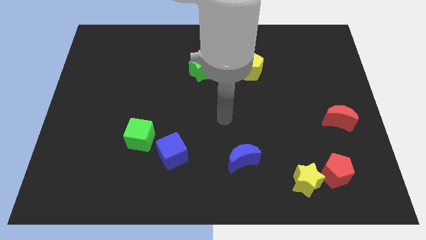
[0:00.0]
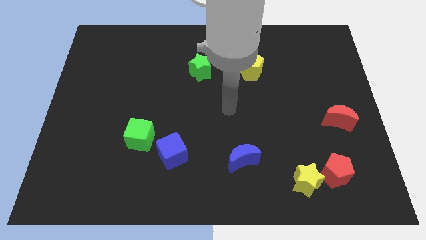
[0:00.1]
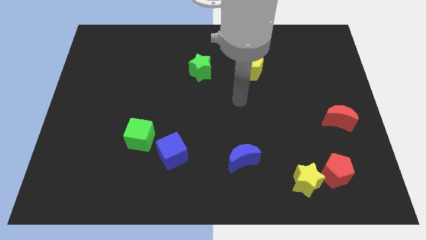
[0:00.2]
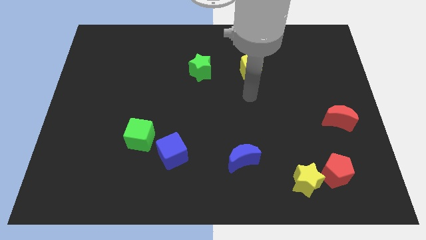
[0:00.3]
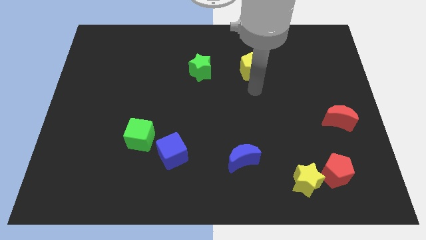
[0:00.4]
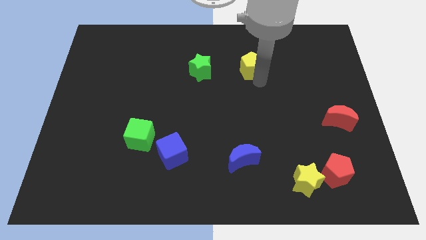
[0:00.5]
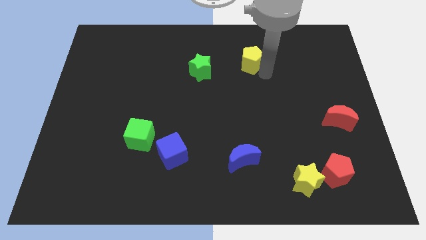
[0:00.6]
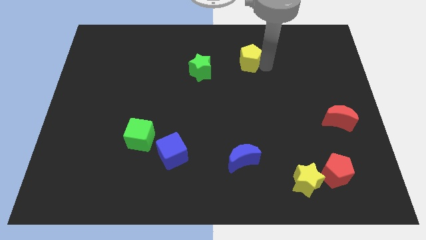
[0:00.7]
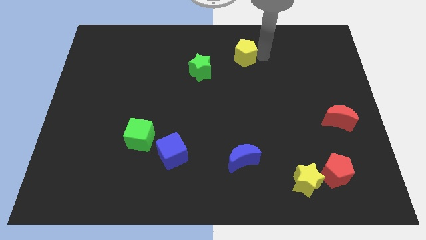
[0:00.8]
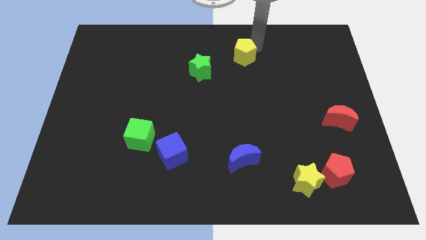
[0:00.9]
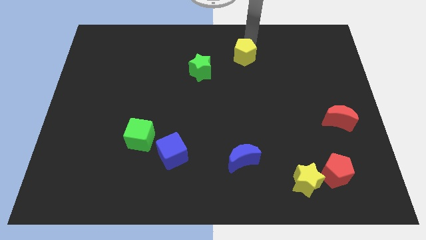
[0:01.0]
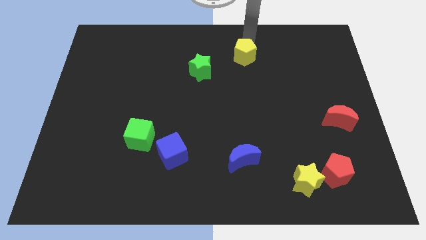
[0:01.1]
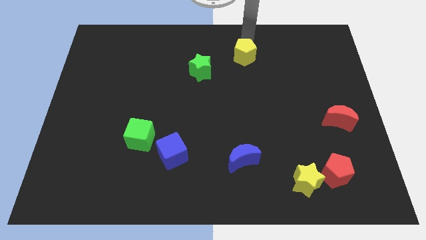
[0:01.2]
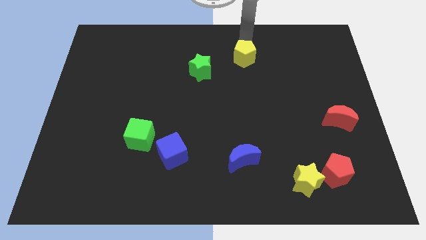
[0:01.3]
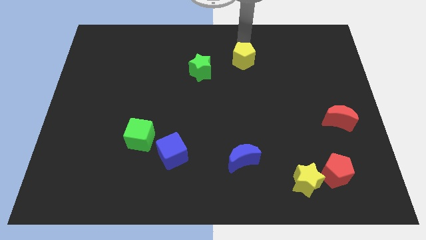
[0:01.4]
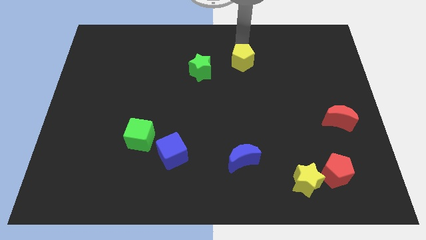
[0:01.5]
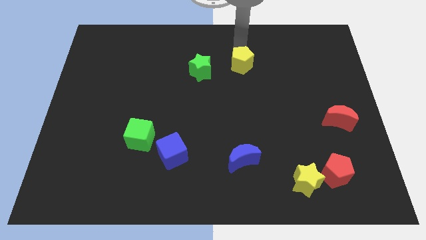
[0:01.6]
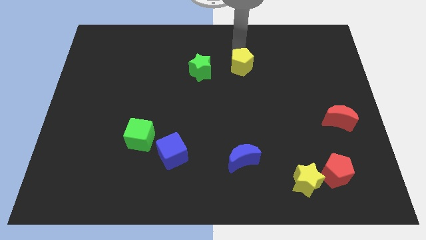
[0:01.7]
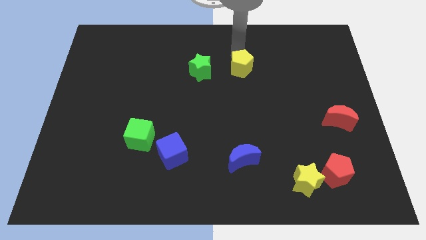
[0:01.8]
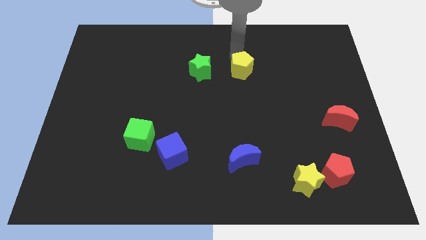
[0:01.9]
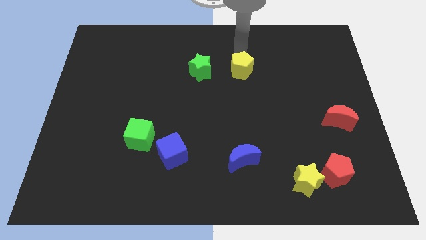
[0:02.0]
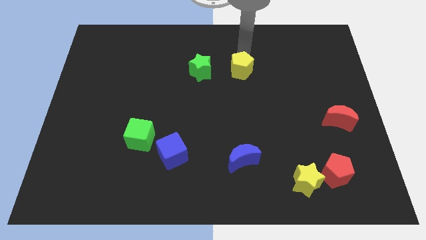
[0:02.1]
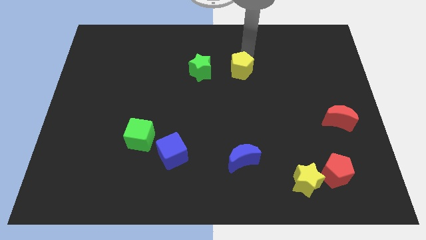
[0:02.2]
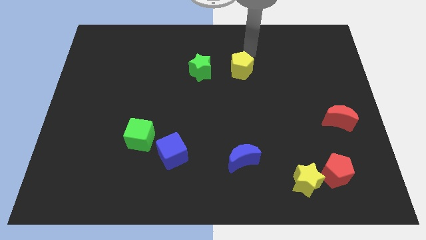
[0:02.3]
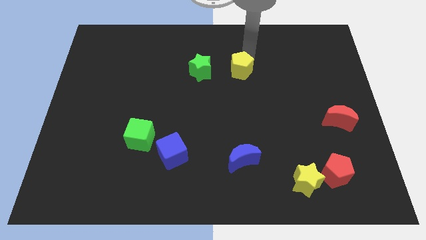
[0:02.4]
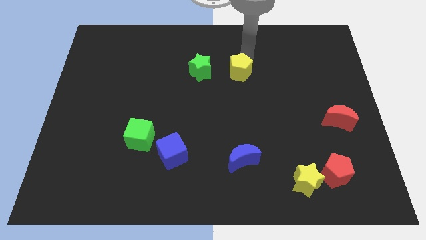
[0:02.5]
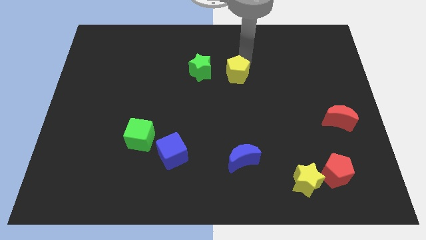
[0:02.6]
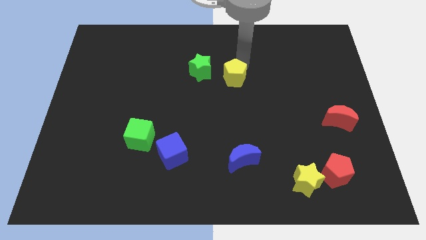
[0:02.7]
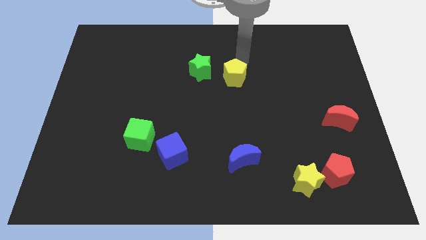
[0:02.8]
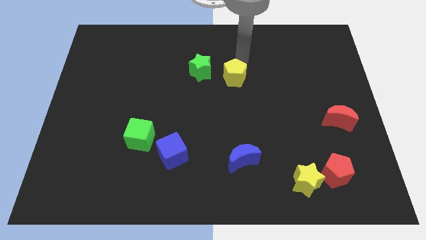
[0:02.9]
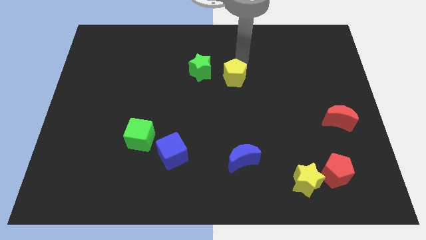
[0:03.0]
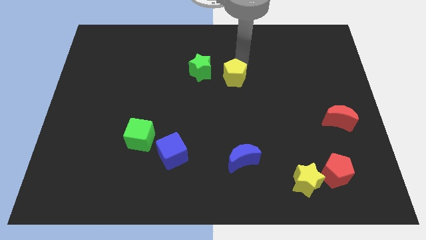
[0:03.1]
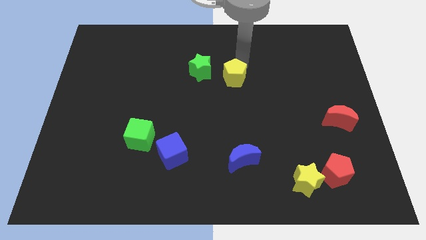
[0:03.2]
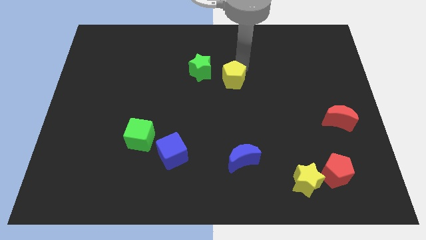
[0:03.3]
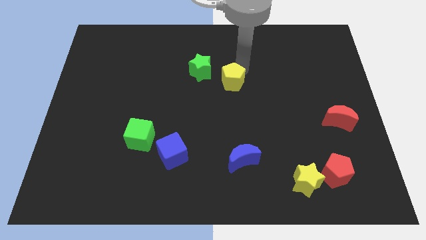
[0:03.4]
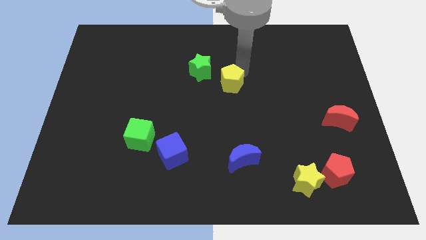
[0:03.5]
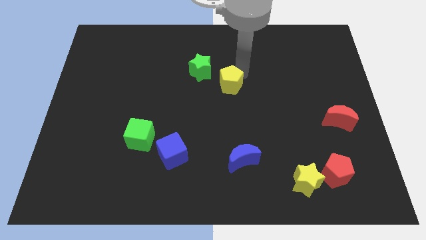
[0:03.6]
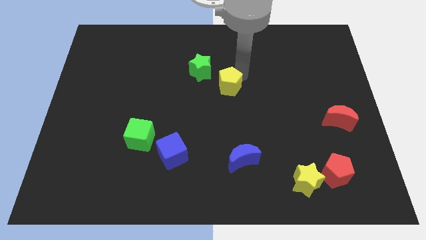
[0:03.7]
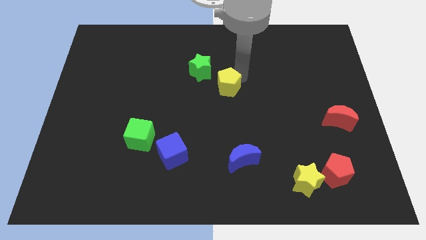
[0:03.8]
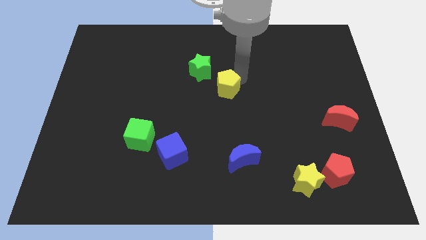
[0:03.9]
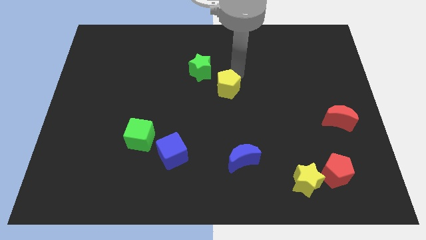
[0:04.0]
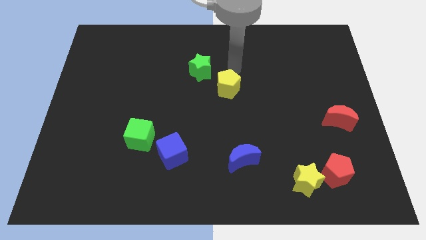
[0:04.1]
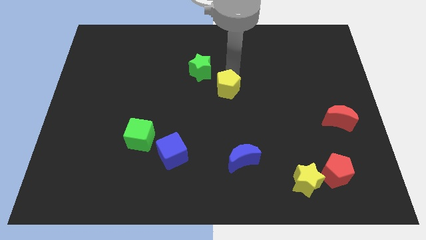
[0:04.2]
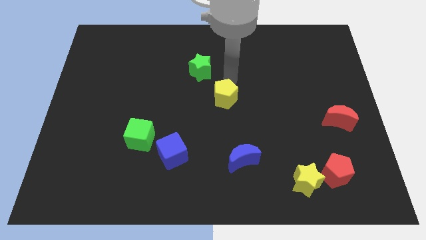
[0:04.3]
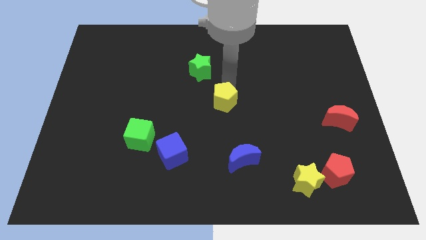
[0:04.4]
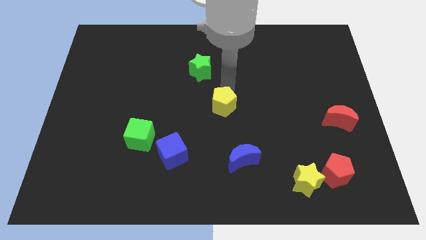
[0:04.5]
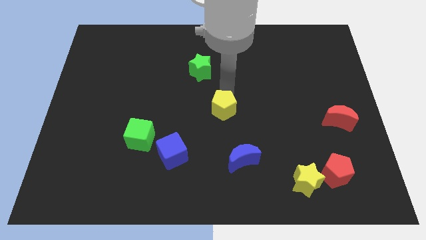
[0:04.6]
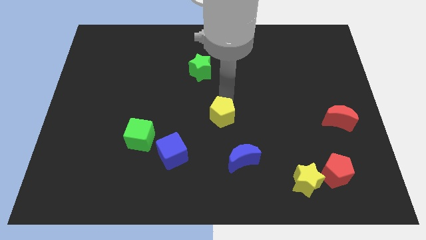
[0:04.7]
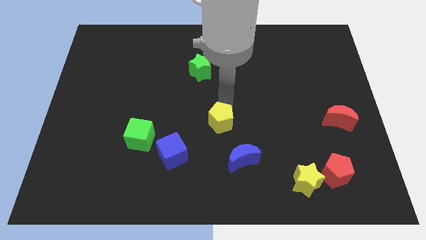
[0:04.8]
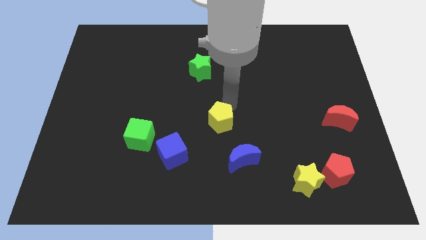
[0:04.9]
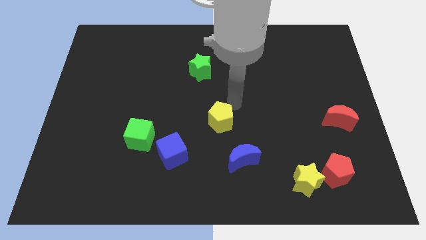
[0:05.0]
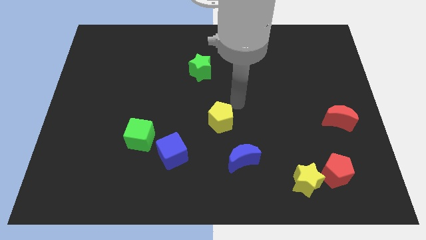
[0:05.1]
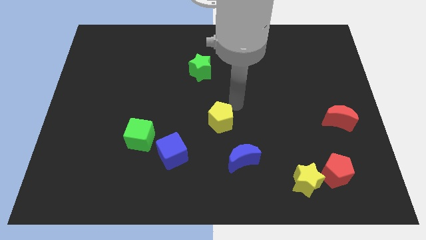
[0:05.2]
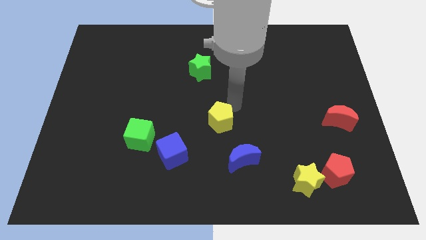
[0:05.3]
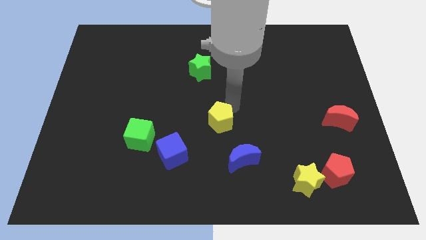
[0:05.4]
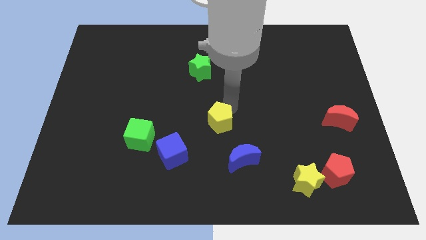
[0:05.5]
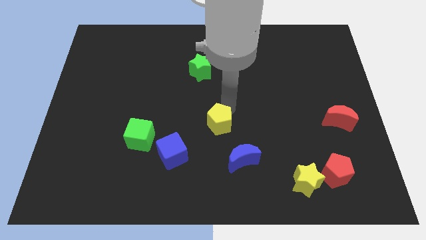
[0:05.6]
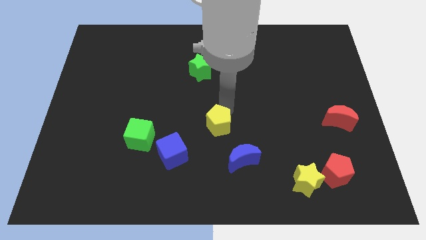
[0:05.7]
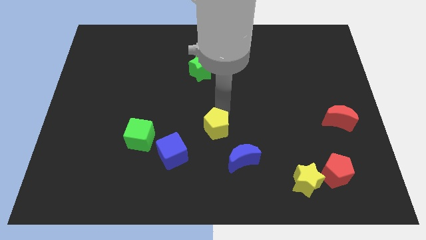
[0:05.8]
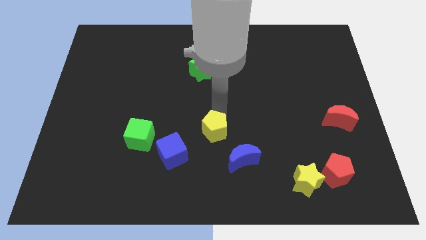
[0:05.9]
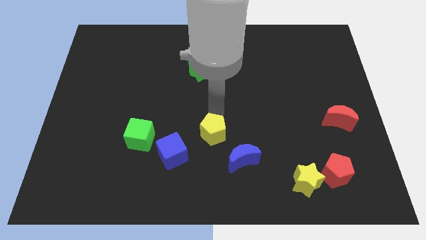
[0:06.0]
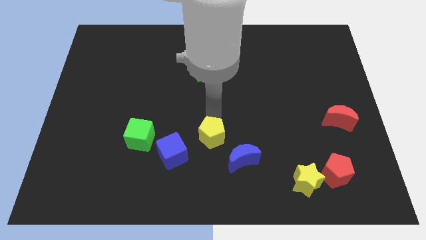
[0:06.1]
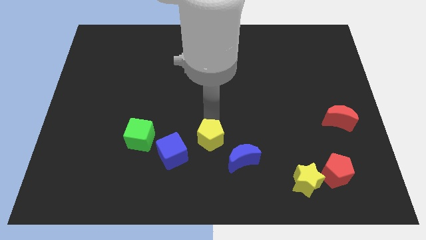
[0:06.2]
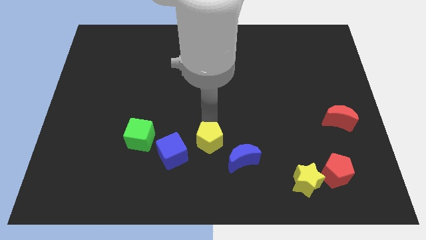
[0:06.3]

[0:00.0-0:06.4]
slide the yellow pentagon to the left side of the blue moon

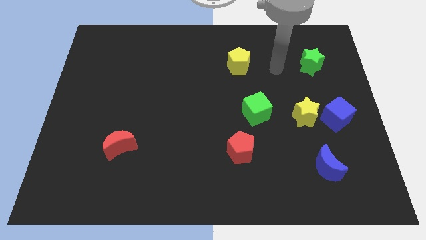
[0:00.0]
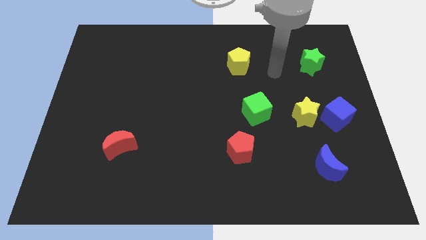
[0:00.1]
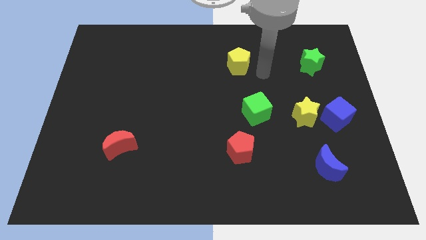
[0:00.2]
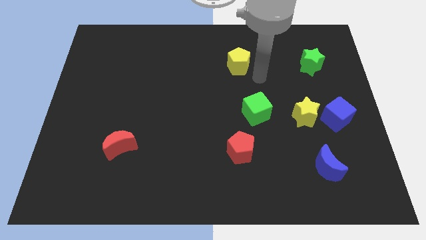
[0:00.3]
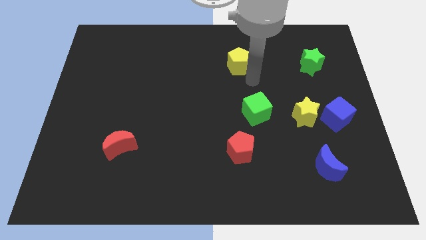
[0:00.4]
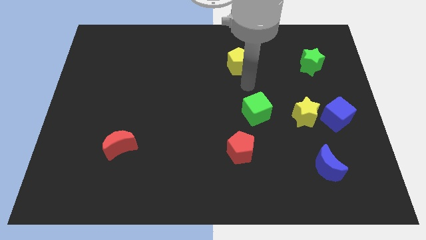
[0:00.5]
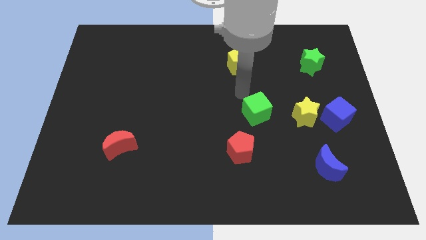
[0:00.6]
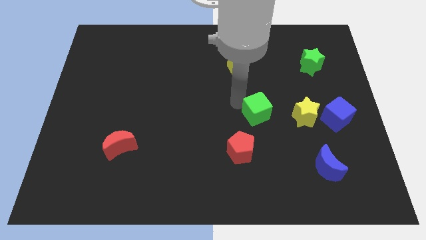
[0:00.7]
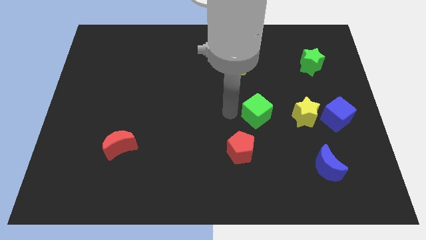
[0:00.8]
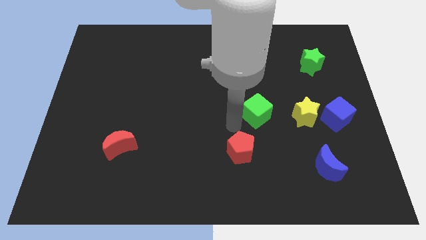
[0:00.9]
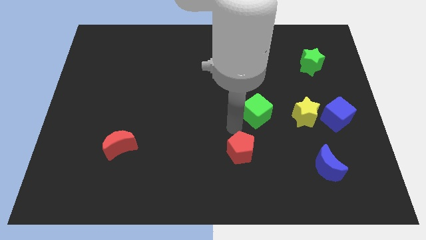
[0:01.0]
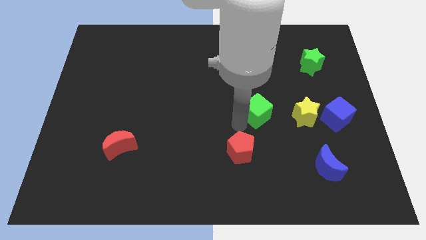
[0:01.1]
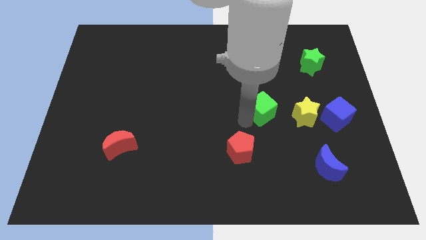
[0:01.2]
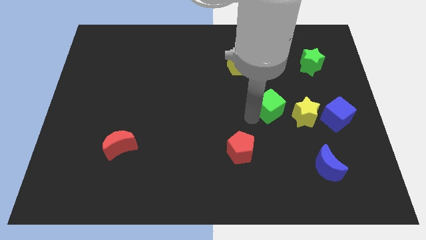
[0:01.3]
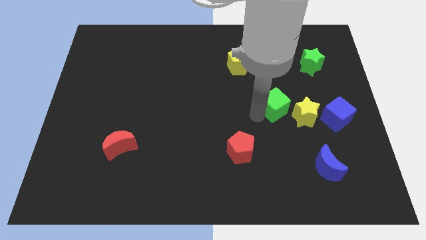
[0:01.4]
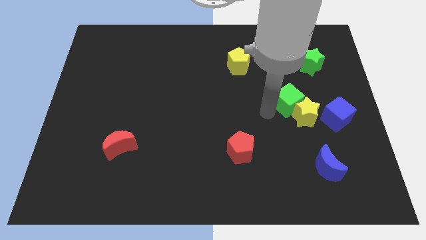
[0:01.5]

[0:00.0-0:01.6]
push the green cube above the yellow star
